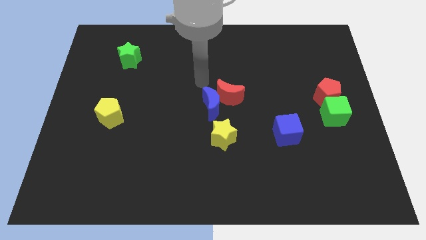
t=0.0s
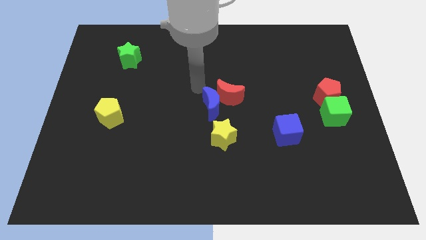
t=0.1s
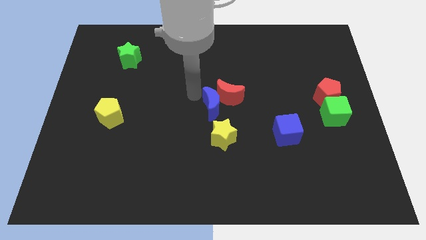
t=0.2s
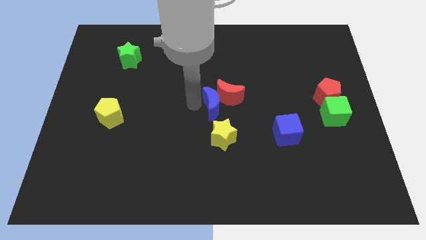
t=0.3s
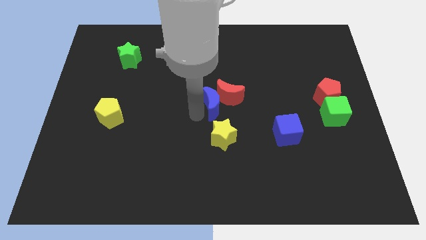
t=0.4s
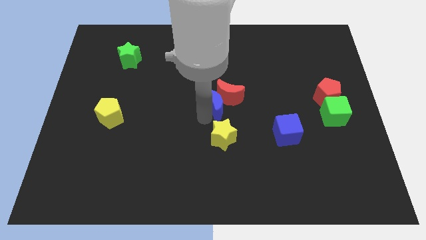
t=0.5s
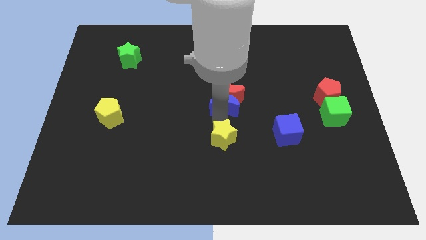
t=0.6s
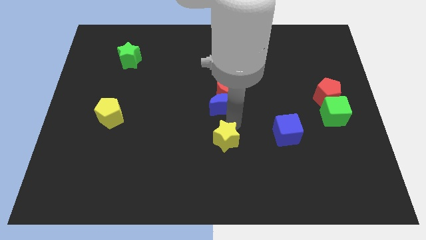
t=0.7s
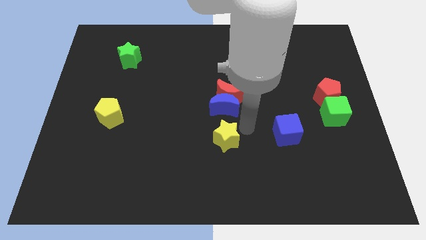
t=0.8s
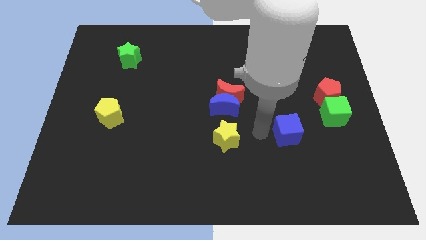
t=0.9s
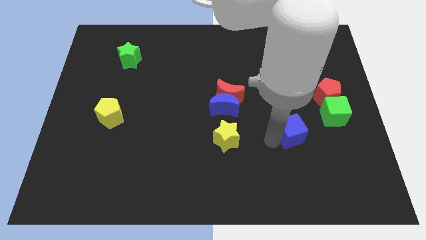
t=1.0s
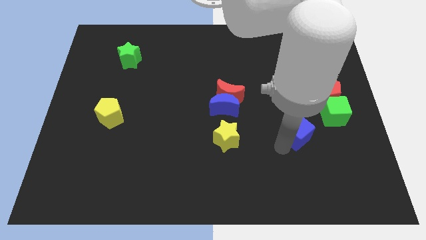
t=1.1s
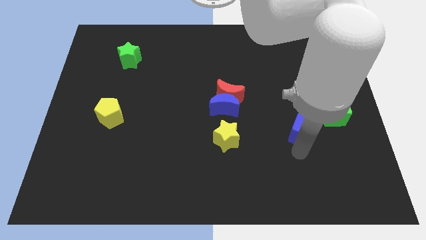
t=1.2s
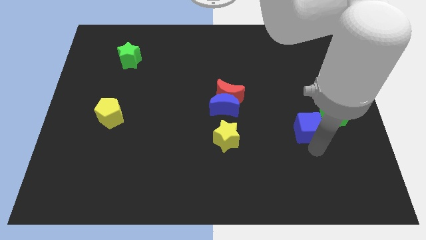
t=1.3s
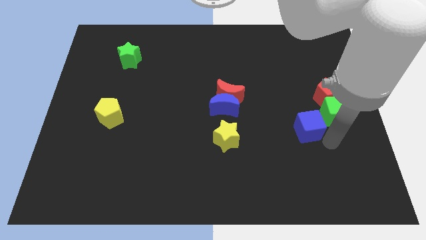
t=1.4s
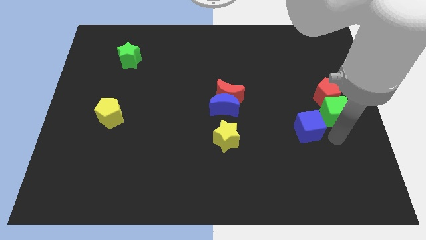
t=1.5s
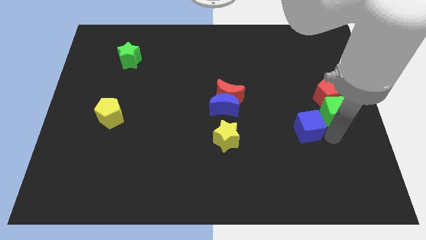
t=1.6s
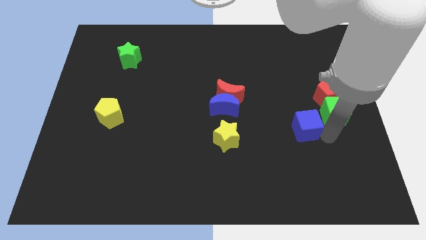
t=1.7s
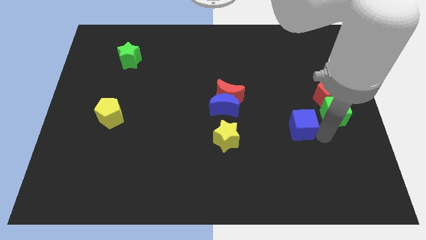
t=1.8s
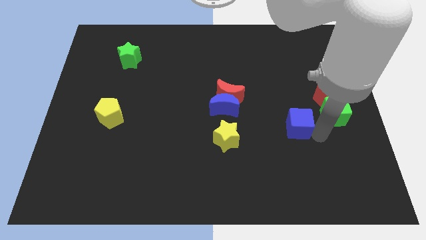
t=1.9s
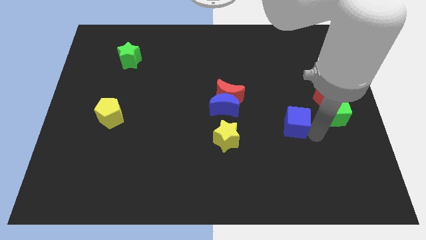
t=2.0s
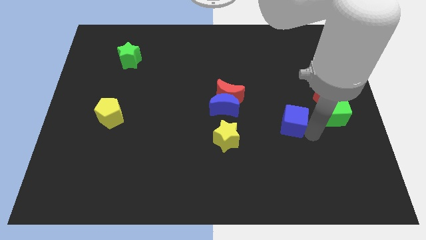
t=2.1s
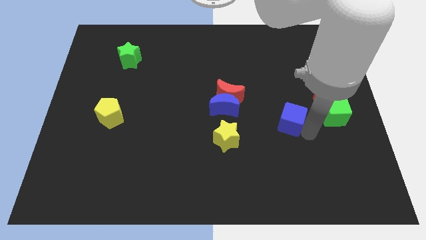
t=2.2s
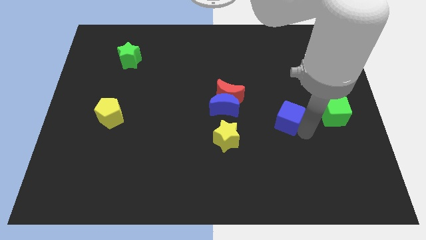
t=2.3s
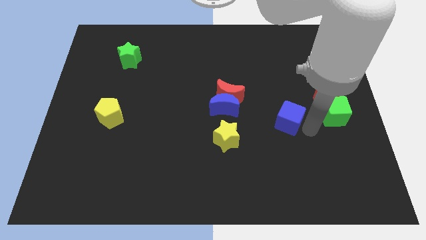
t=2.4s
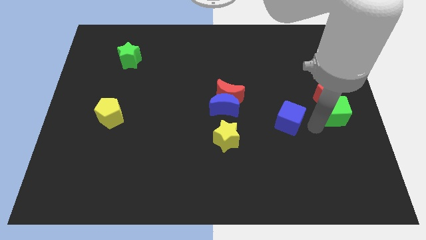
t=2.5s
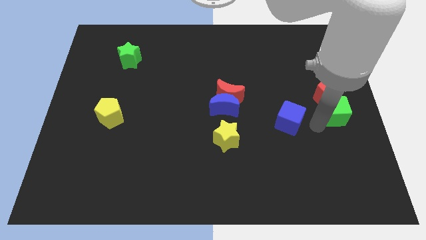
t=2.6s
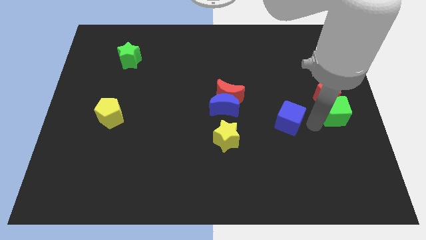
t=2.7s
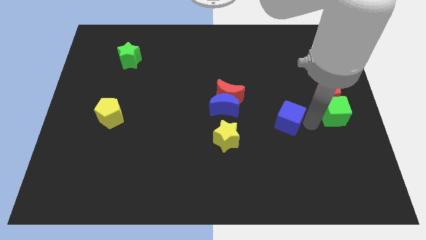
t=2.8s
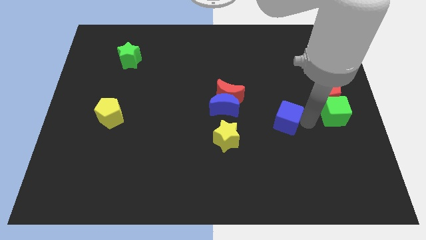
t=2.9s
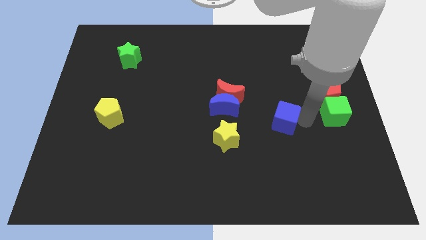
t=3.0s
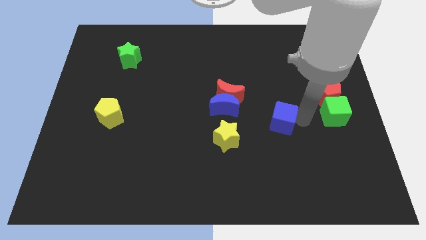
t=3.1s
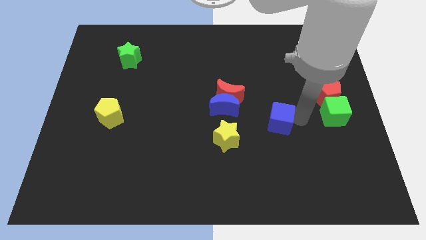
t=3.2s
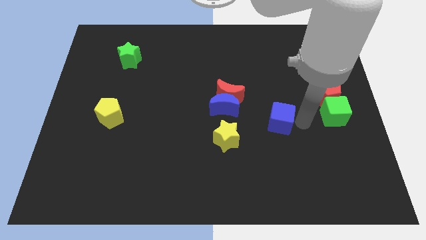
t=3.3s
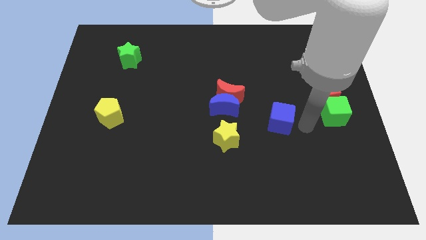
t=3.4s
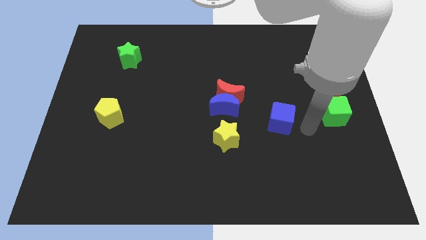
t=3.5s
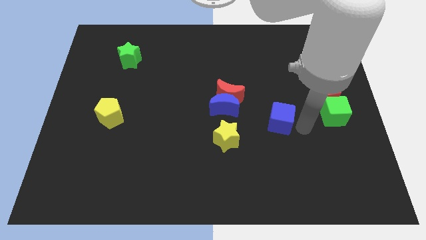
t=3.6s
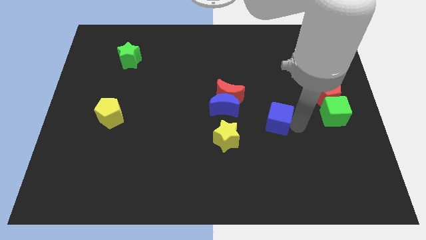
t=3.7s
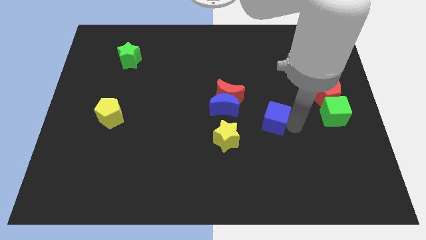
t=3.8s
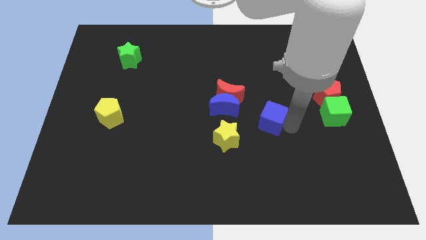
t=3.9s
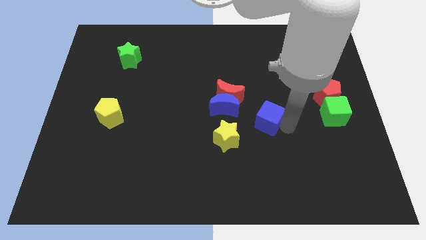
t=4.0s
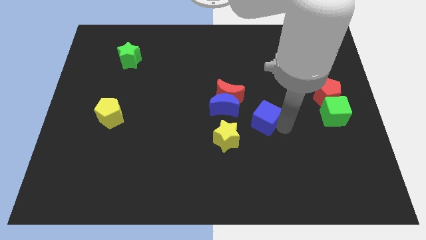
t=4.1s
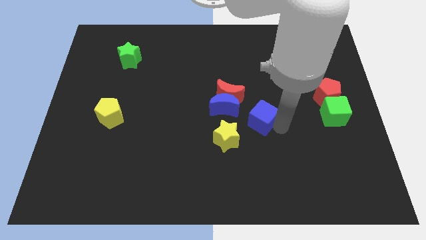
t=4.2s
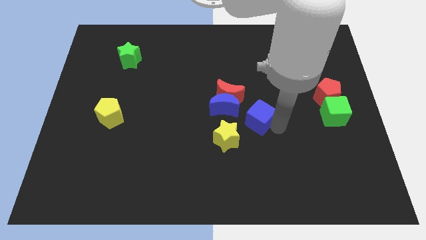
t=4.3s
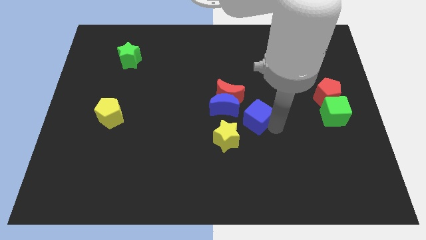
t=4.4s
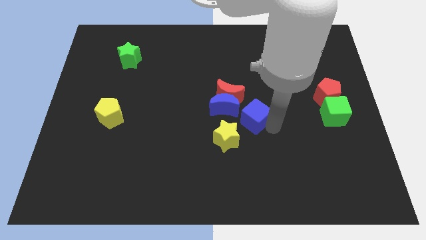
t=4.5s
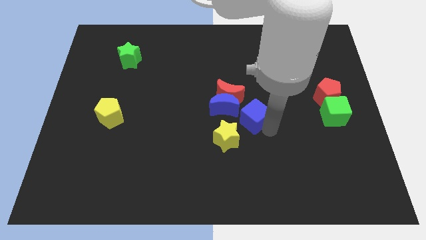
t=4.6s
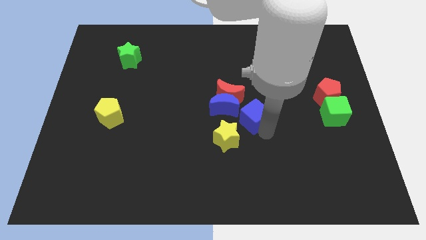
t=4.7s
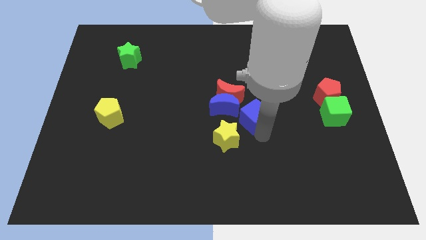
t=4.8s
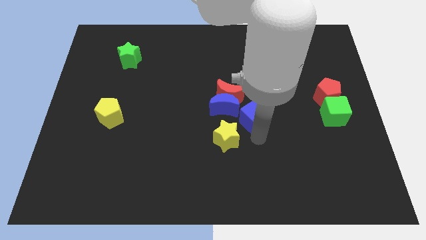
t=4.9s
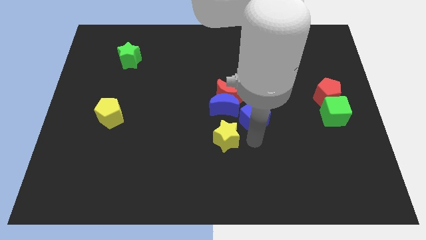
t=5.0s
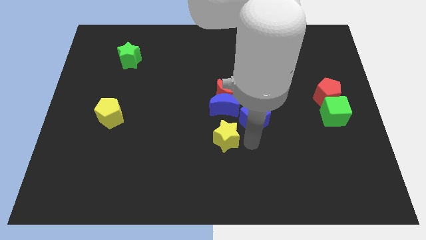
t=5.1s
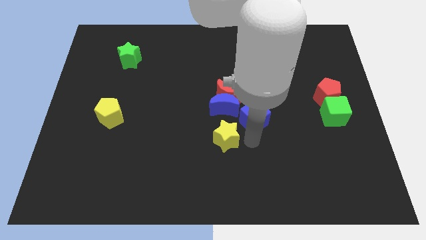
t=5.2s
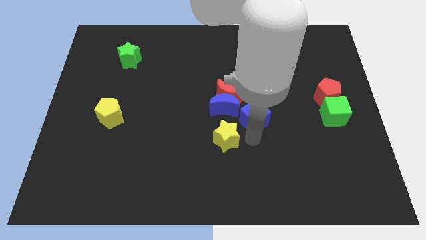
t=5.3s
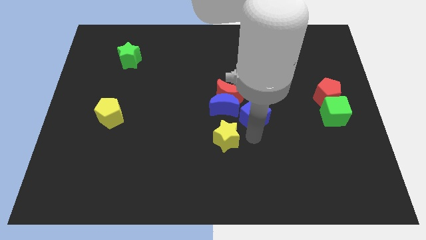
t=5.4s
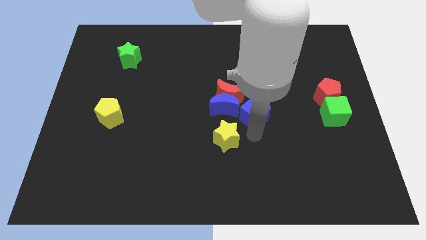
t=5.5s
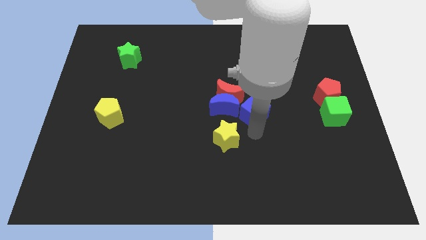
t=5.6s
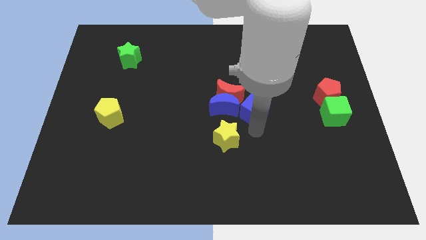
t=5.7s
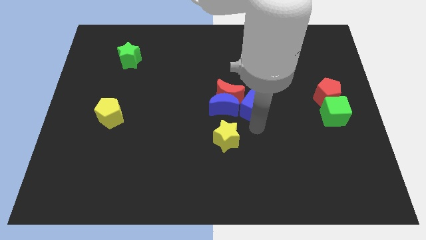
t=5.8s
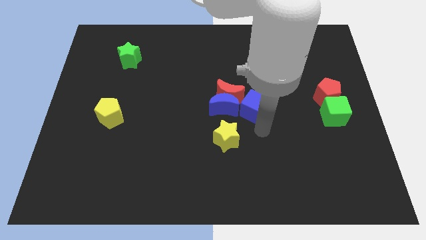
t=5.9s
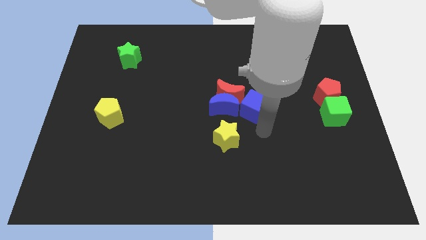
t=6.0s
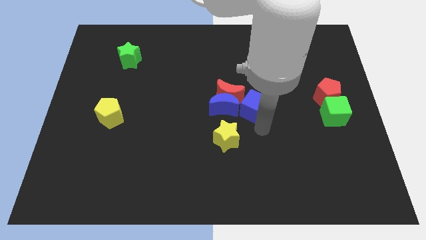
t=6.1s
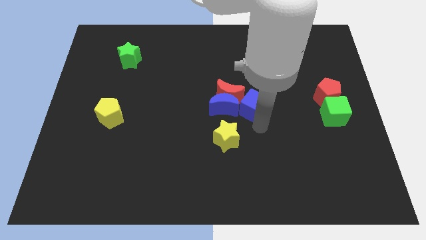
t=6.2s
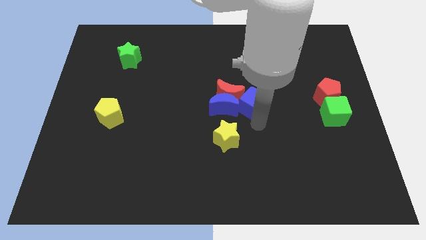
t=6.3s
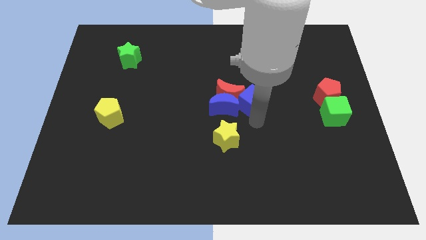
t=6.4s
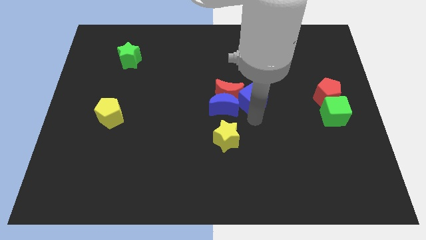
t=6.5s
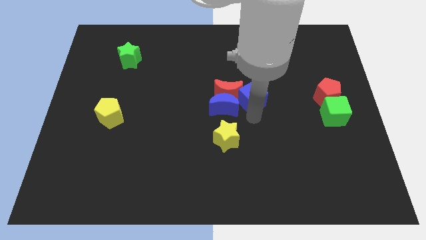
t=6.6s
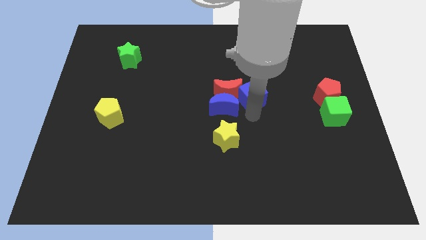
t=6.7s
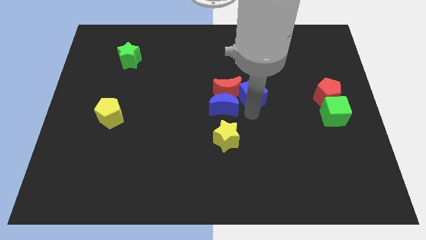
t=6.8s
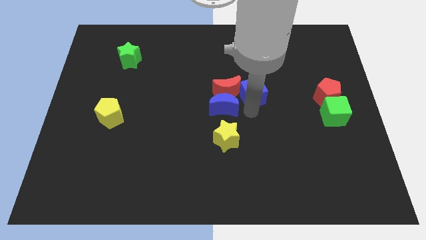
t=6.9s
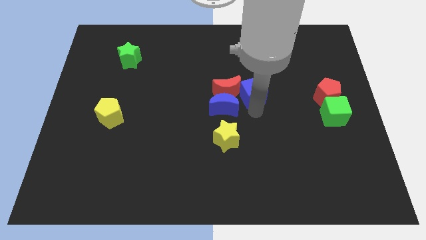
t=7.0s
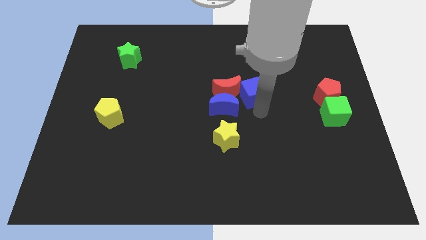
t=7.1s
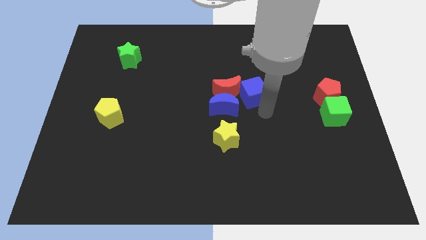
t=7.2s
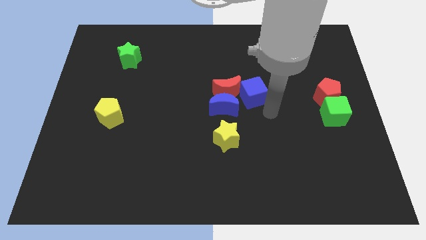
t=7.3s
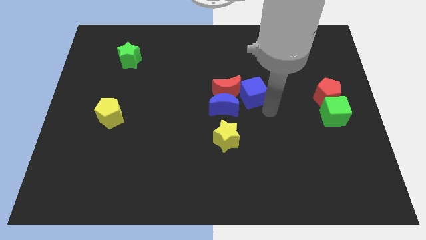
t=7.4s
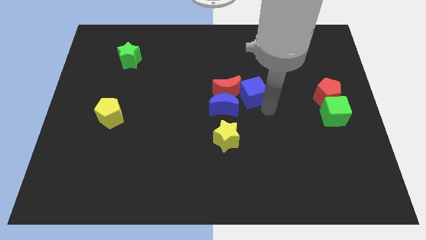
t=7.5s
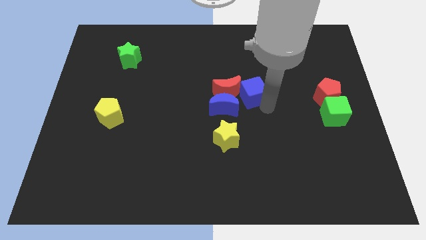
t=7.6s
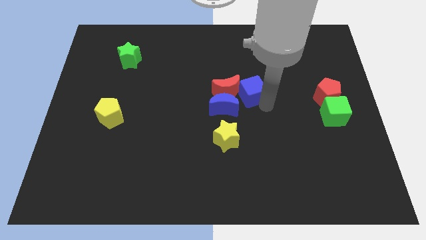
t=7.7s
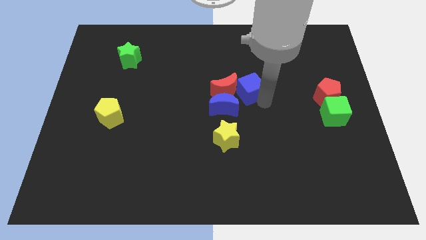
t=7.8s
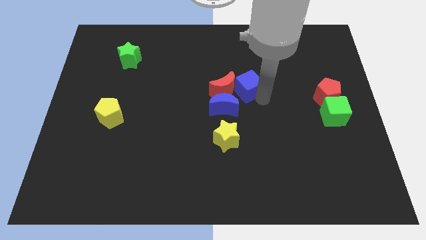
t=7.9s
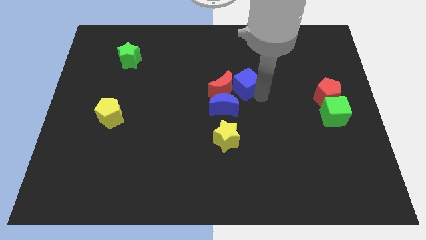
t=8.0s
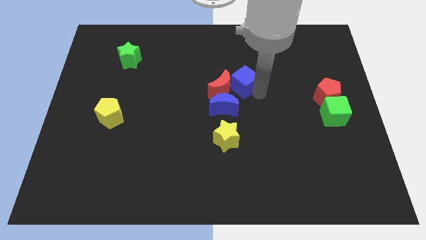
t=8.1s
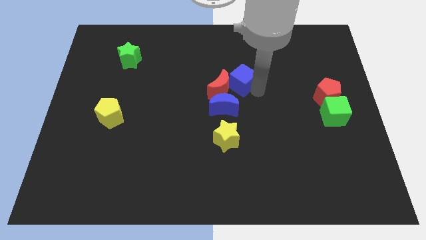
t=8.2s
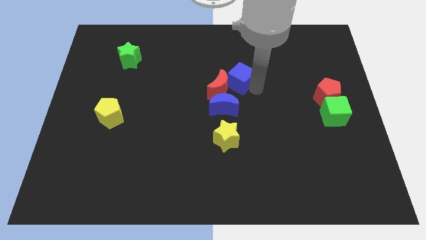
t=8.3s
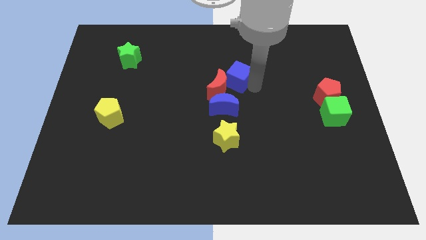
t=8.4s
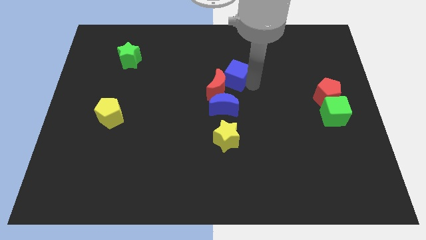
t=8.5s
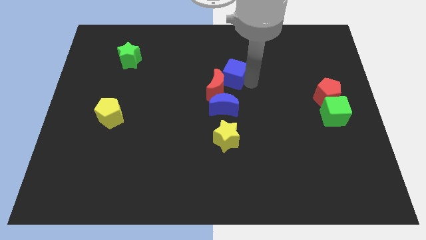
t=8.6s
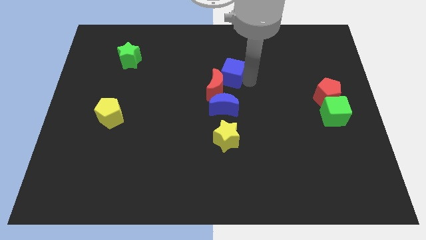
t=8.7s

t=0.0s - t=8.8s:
move the blue cube diagonally up and left
